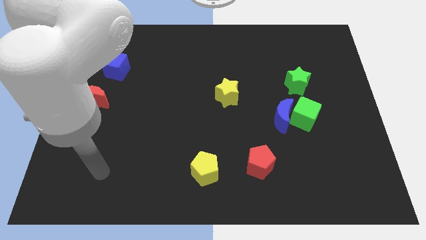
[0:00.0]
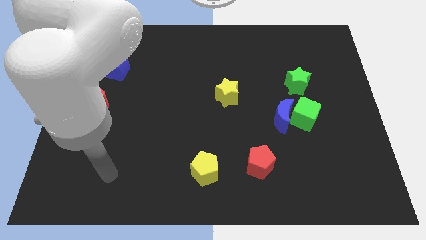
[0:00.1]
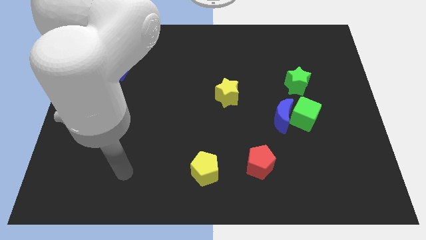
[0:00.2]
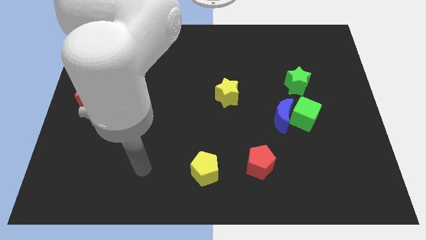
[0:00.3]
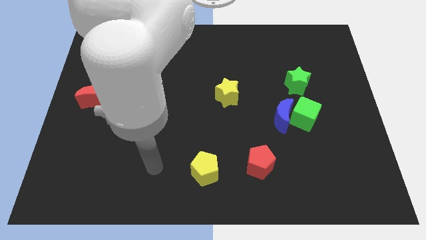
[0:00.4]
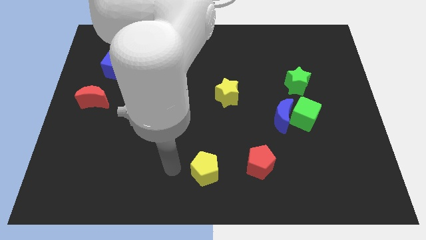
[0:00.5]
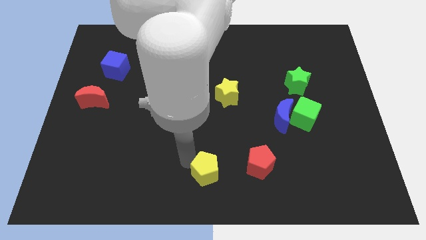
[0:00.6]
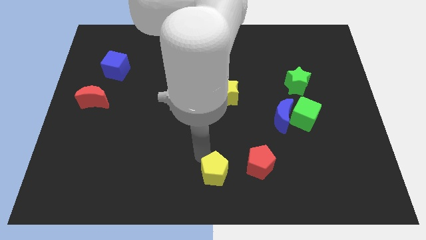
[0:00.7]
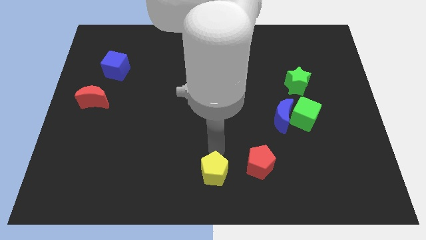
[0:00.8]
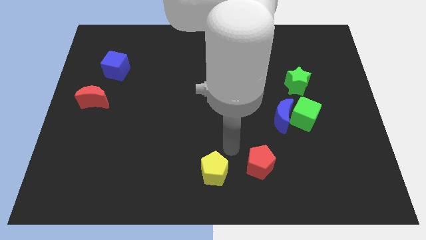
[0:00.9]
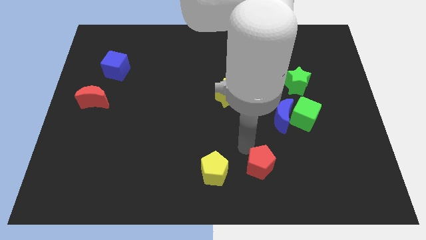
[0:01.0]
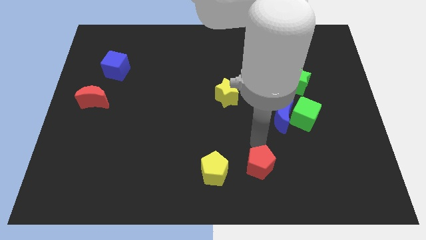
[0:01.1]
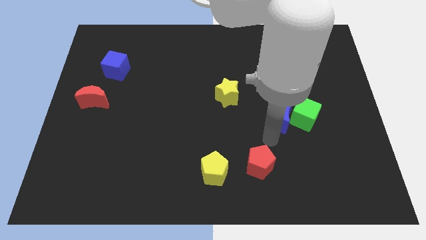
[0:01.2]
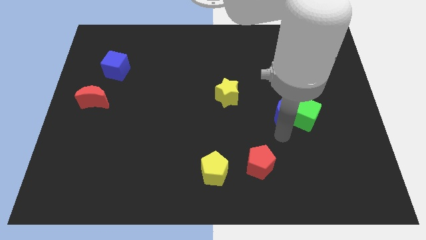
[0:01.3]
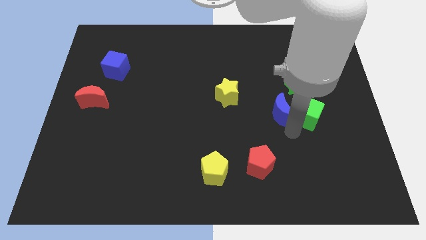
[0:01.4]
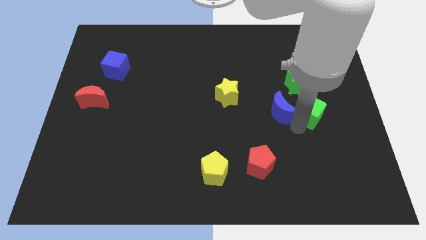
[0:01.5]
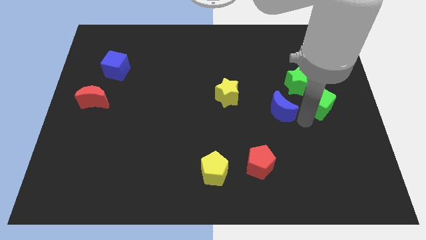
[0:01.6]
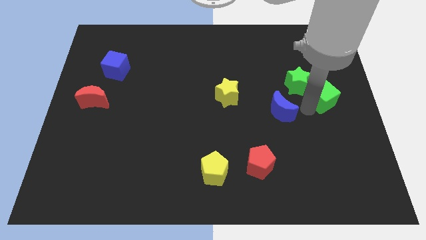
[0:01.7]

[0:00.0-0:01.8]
pull the blue moon apart from the green cube

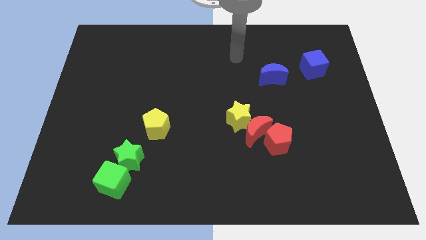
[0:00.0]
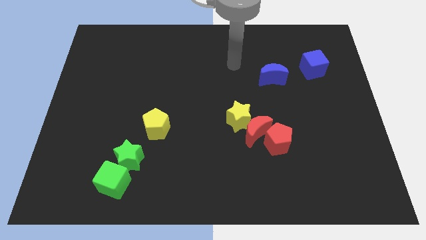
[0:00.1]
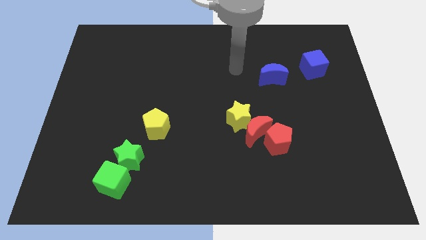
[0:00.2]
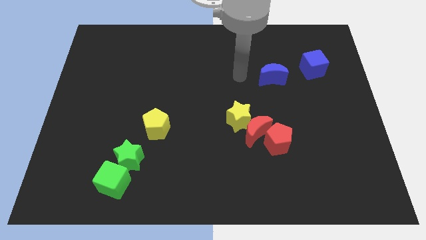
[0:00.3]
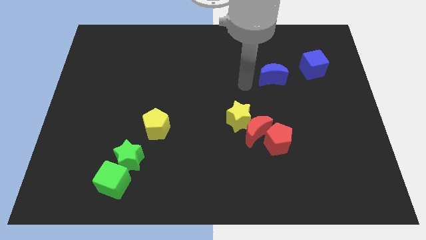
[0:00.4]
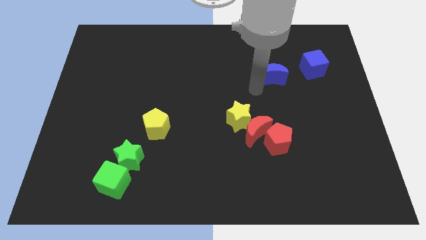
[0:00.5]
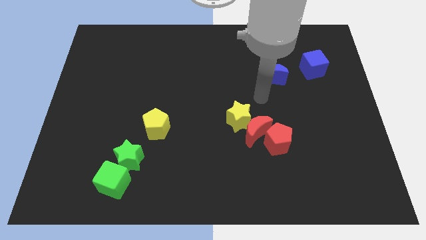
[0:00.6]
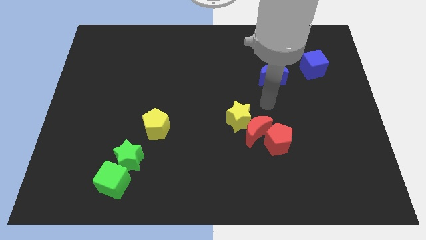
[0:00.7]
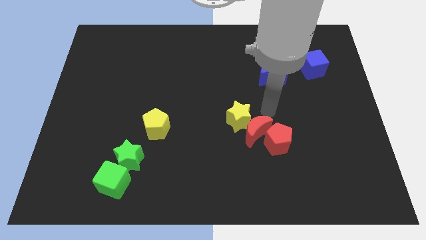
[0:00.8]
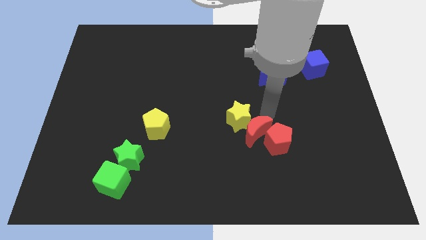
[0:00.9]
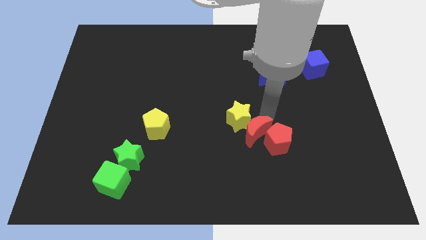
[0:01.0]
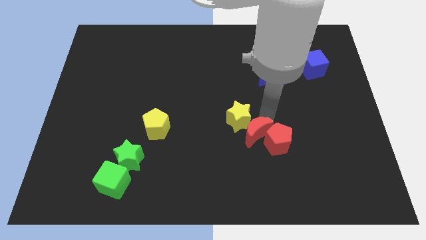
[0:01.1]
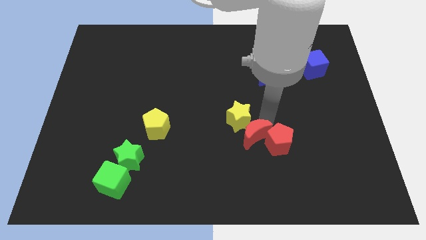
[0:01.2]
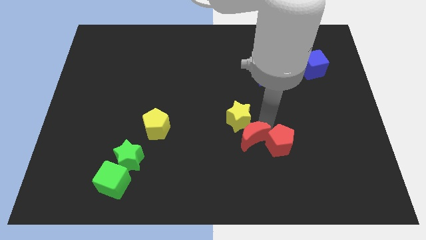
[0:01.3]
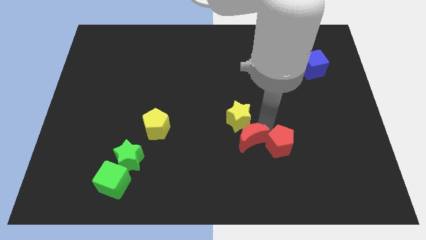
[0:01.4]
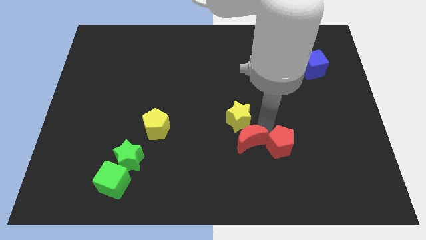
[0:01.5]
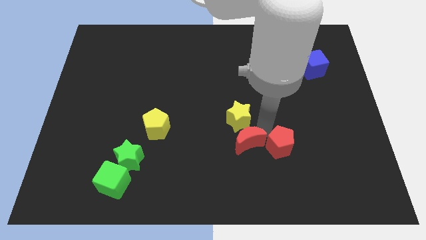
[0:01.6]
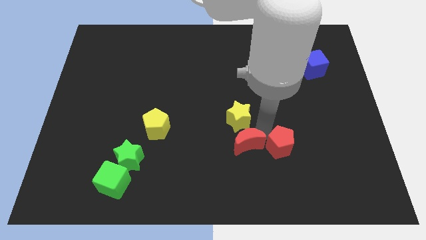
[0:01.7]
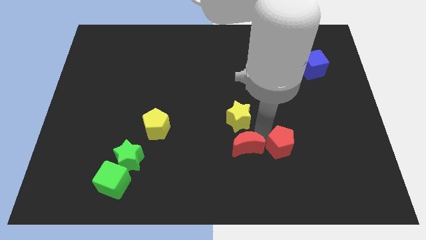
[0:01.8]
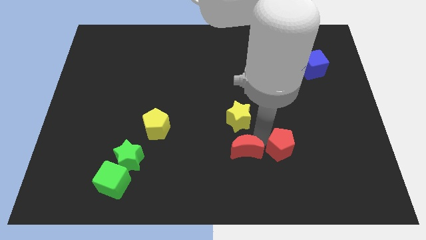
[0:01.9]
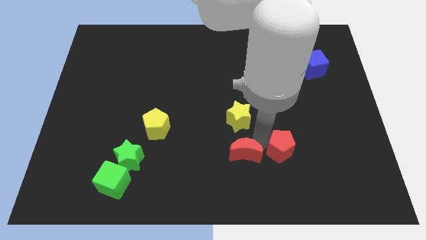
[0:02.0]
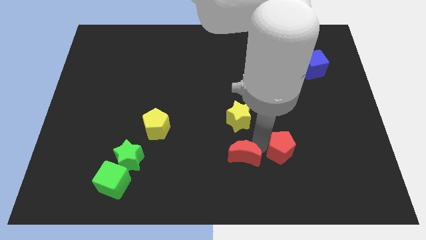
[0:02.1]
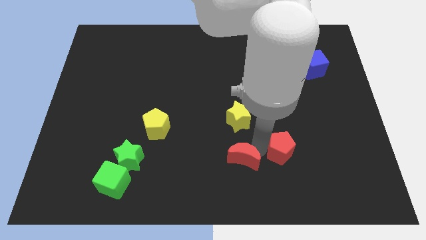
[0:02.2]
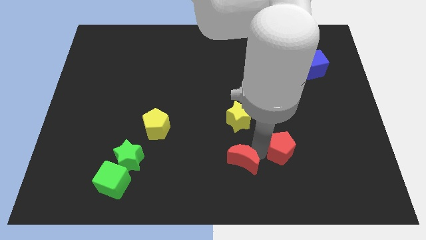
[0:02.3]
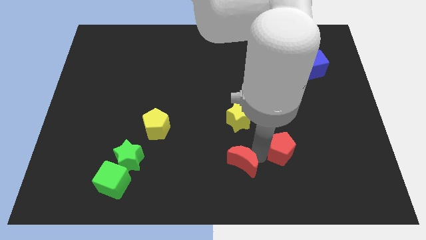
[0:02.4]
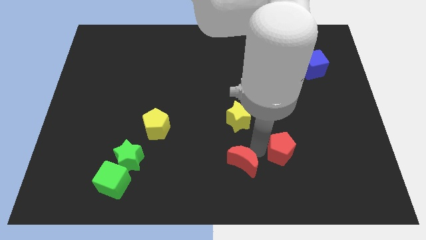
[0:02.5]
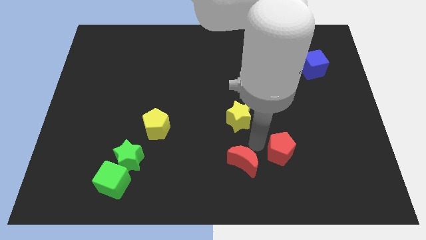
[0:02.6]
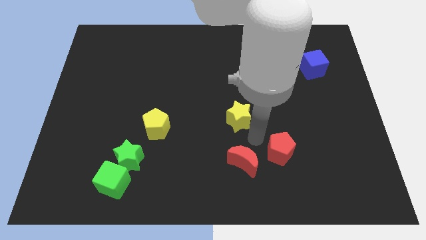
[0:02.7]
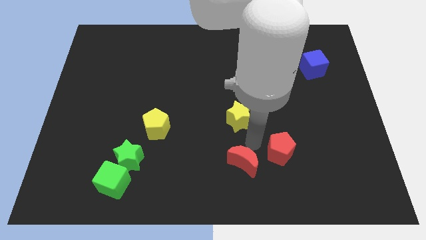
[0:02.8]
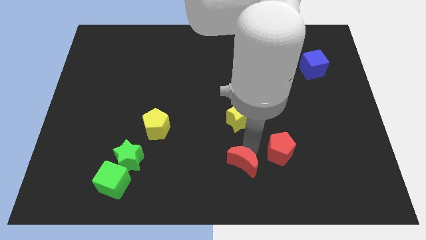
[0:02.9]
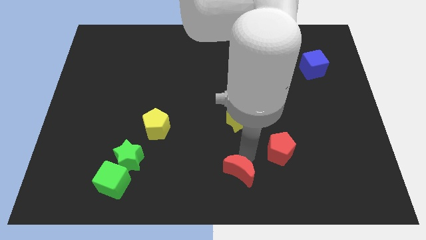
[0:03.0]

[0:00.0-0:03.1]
move the red moon away from the red pentagon and yellow star

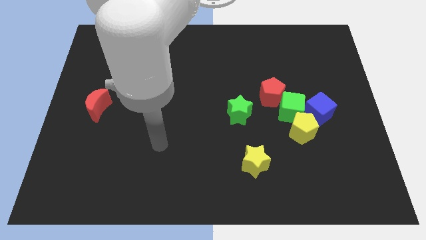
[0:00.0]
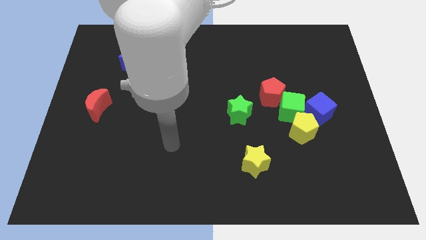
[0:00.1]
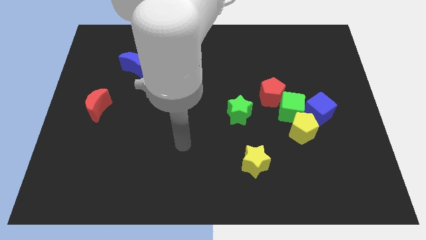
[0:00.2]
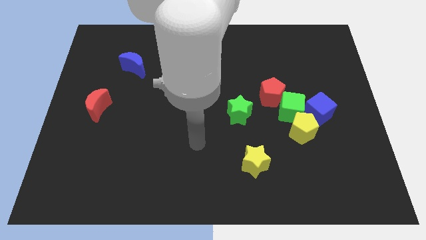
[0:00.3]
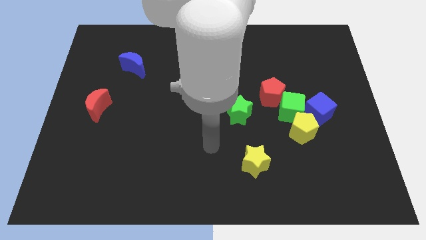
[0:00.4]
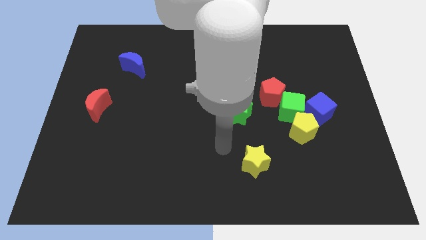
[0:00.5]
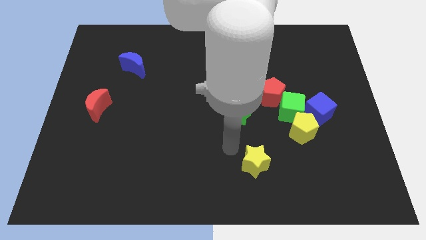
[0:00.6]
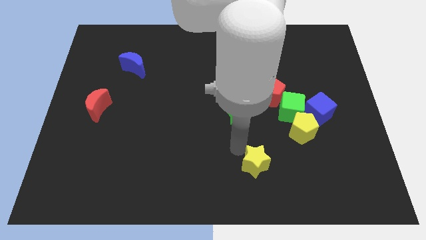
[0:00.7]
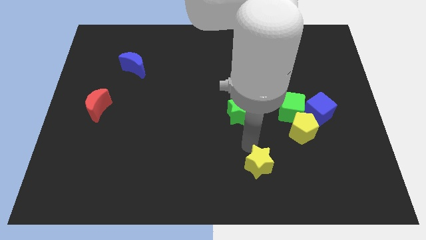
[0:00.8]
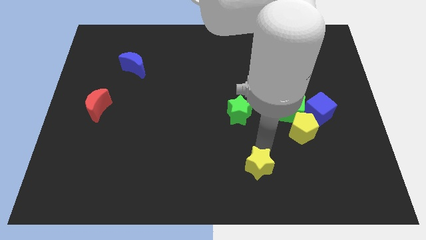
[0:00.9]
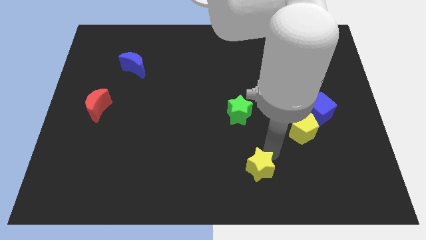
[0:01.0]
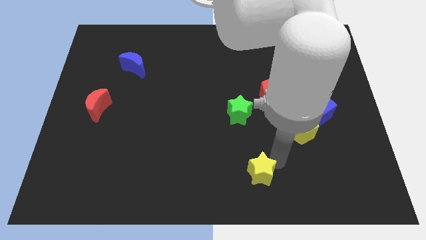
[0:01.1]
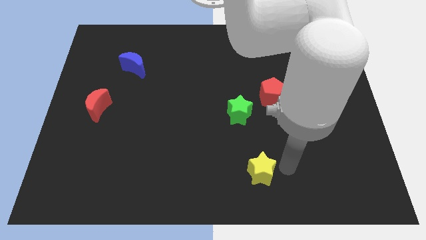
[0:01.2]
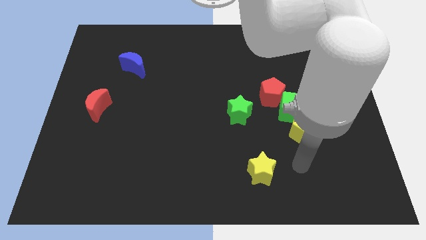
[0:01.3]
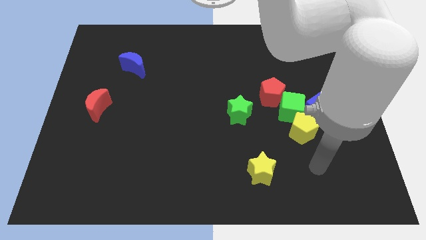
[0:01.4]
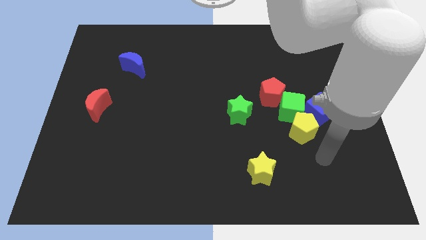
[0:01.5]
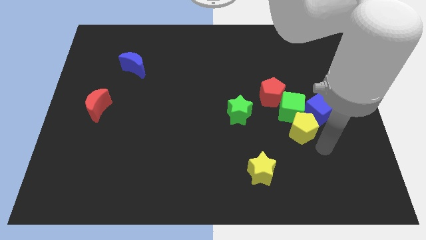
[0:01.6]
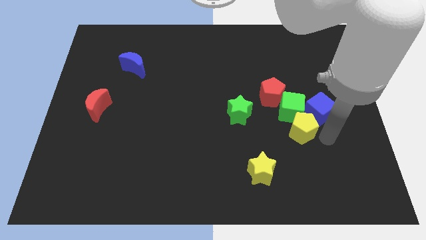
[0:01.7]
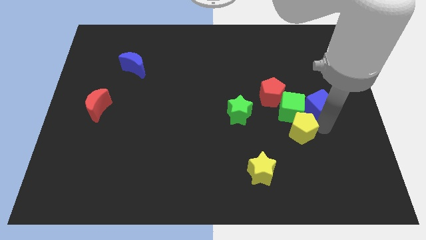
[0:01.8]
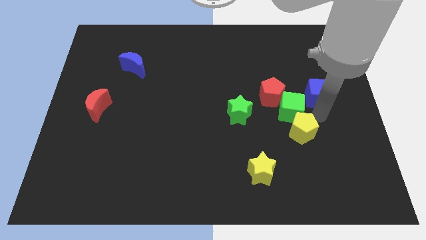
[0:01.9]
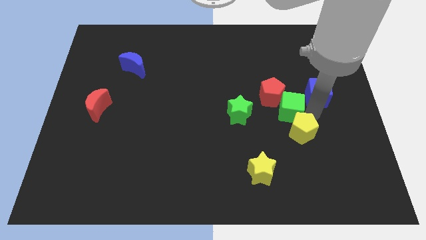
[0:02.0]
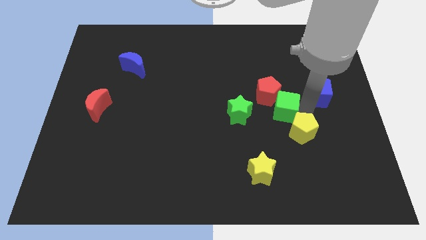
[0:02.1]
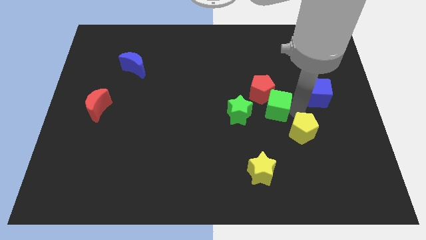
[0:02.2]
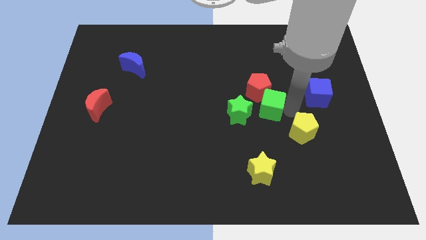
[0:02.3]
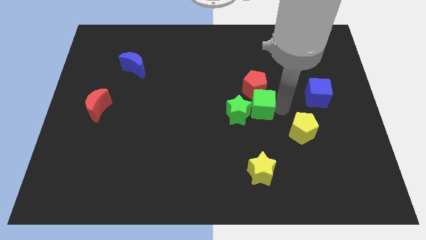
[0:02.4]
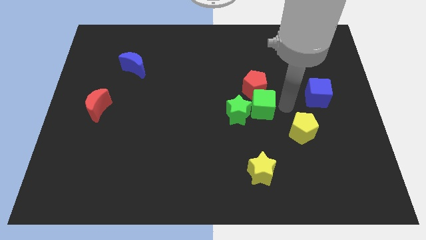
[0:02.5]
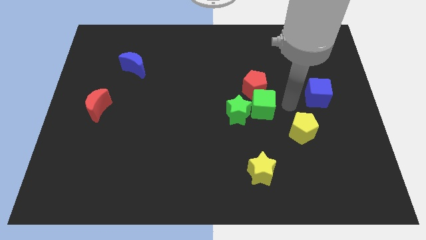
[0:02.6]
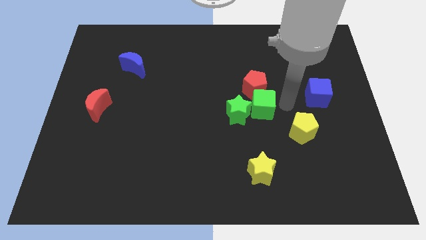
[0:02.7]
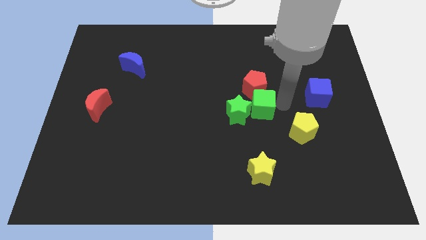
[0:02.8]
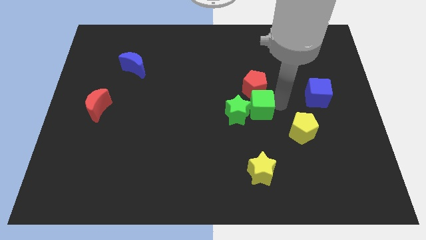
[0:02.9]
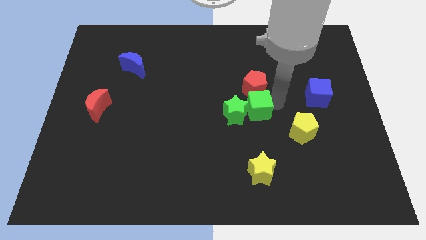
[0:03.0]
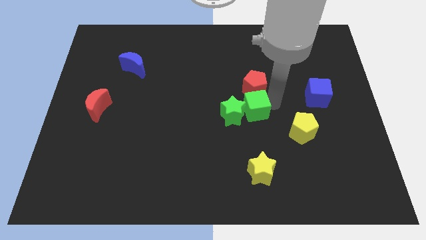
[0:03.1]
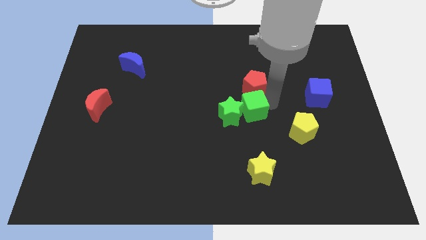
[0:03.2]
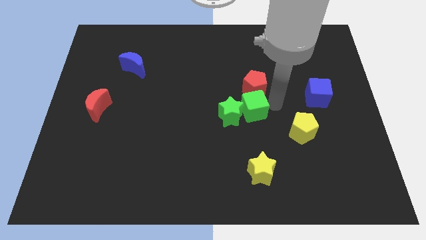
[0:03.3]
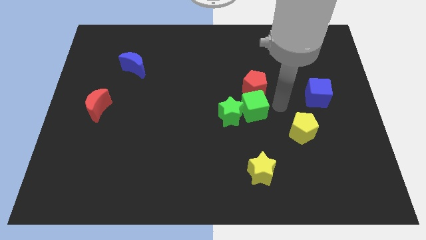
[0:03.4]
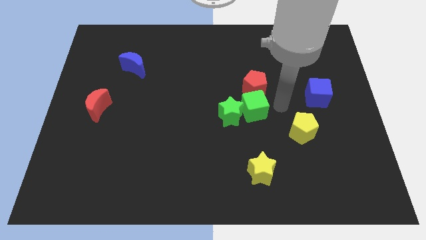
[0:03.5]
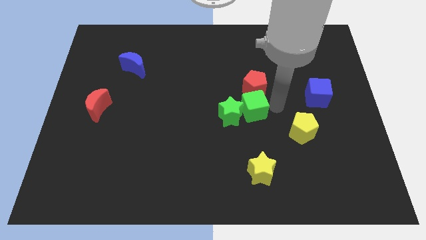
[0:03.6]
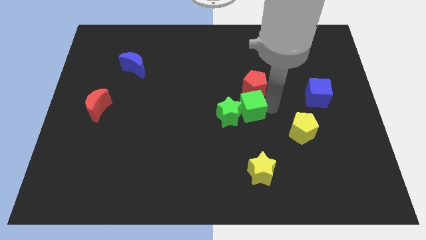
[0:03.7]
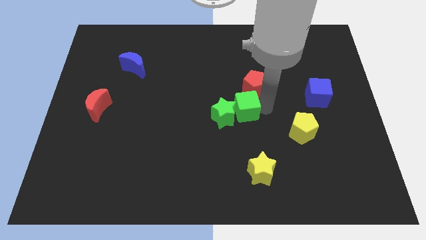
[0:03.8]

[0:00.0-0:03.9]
move the green cube away from the yellow pentagon, red pentagon, and blue cube

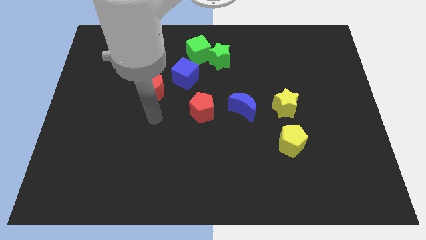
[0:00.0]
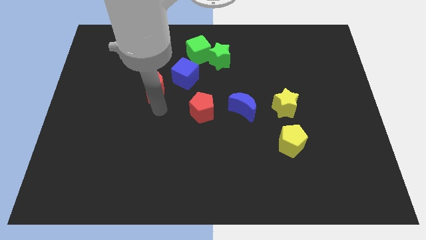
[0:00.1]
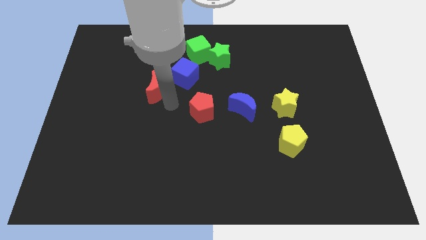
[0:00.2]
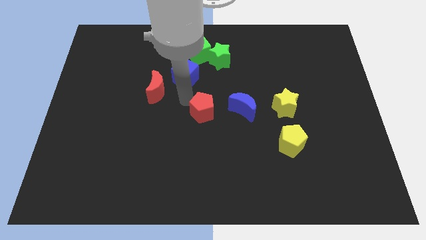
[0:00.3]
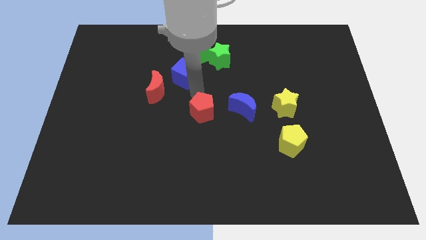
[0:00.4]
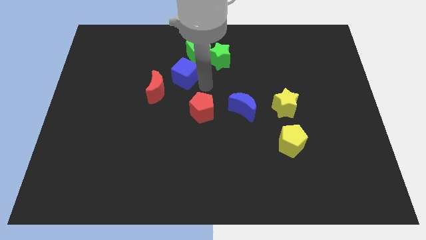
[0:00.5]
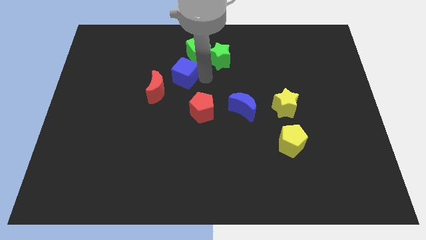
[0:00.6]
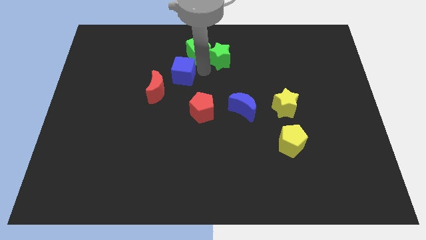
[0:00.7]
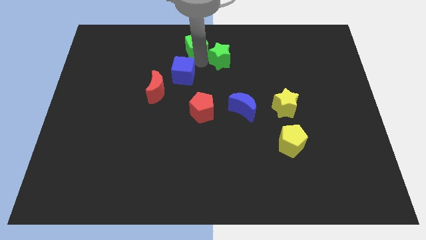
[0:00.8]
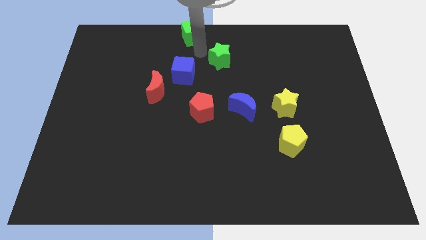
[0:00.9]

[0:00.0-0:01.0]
pull the green star apart from the green cube
